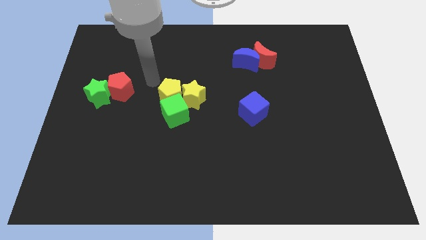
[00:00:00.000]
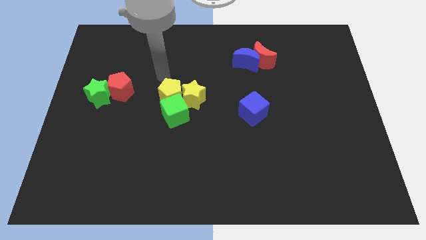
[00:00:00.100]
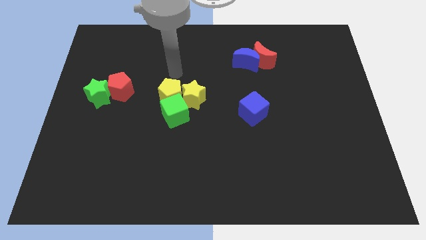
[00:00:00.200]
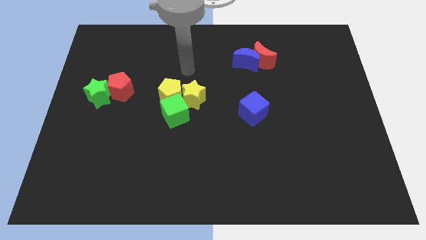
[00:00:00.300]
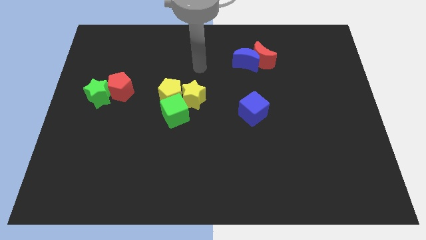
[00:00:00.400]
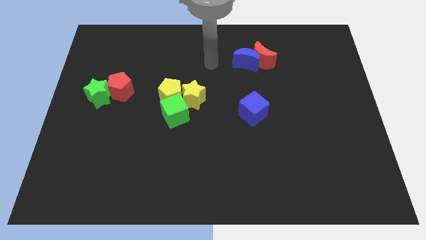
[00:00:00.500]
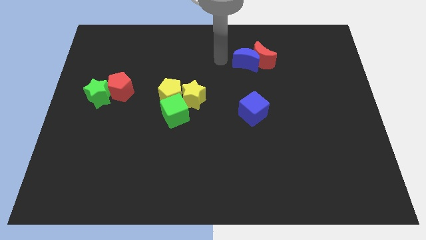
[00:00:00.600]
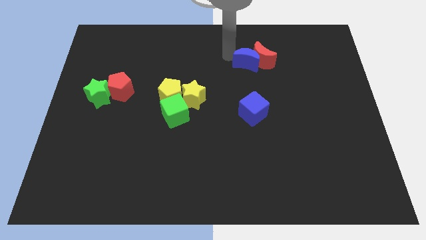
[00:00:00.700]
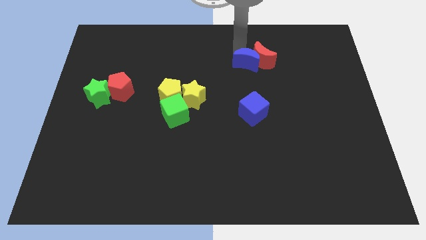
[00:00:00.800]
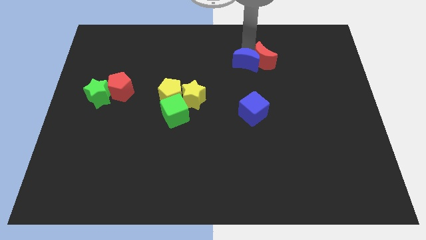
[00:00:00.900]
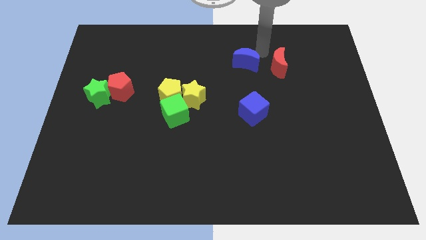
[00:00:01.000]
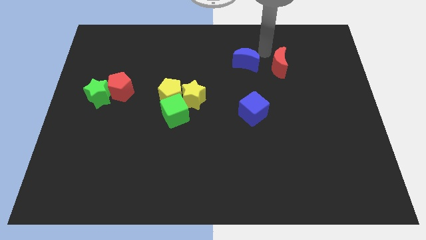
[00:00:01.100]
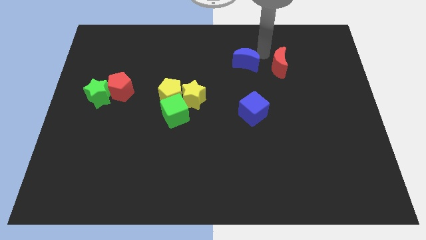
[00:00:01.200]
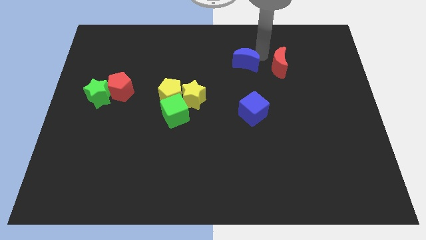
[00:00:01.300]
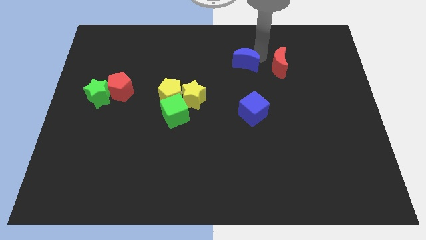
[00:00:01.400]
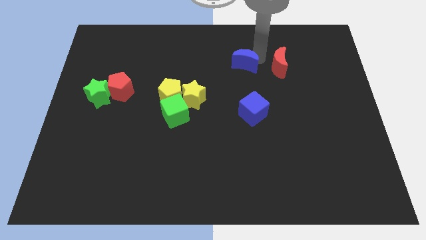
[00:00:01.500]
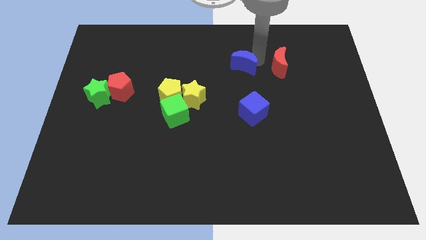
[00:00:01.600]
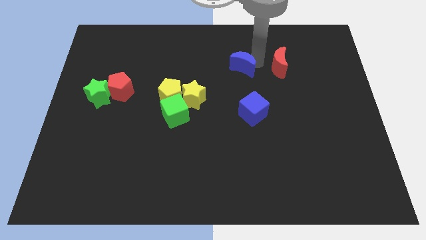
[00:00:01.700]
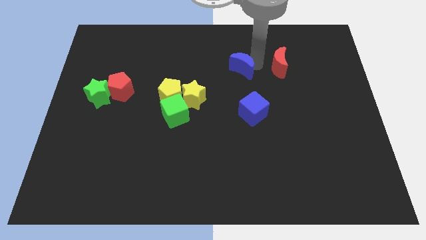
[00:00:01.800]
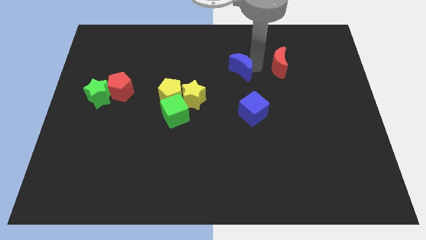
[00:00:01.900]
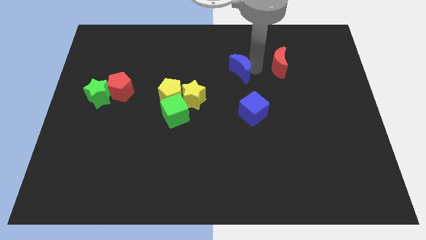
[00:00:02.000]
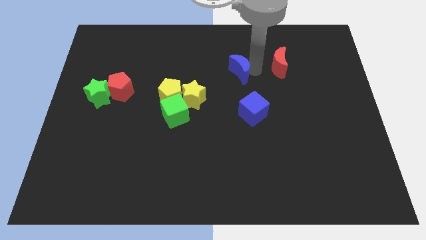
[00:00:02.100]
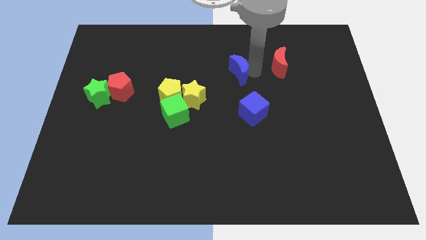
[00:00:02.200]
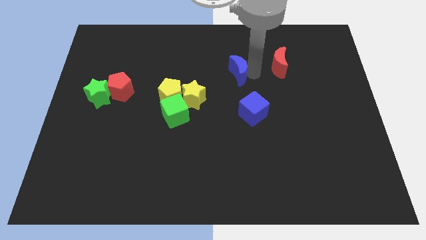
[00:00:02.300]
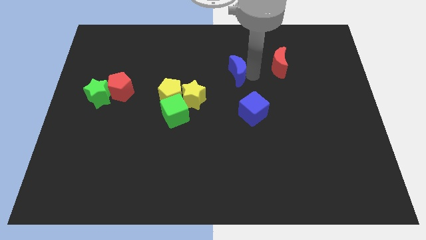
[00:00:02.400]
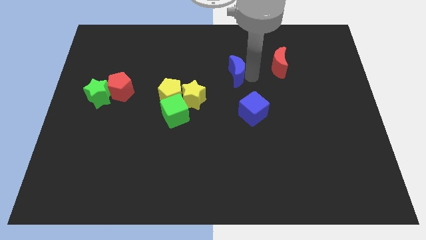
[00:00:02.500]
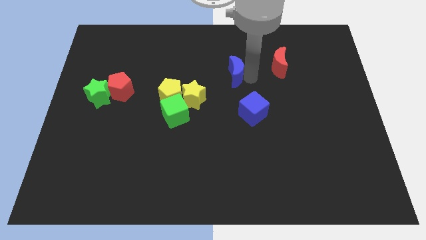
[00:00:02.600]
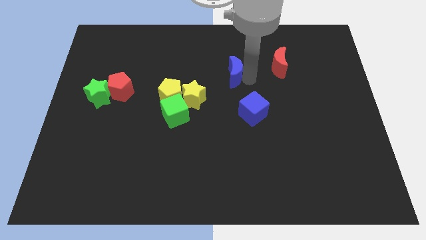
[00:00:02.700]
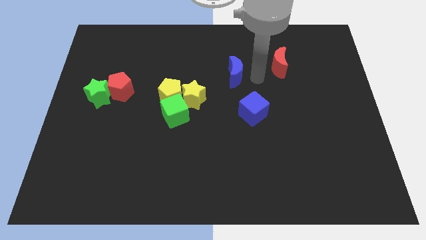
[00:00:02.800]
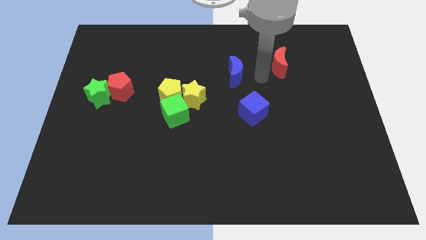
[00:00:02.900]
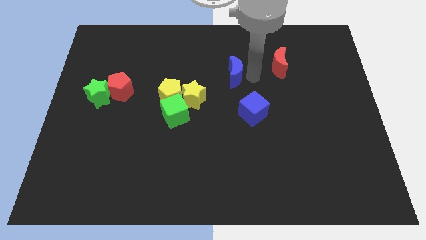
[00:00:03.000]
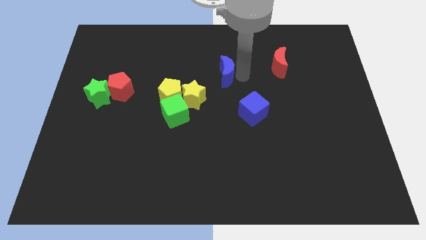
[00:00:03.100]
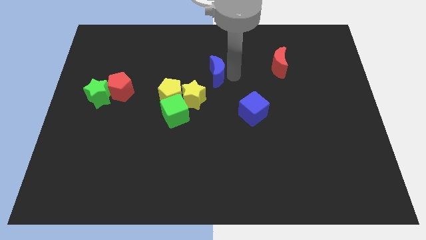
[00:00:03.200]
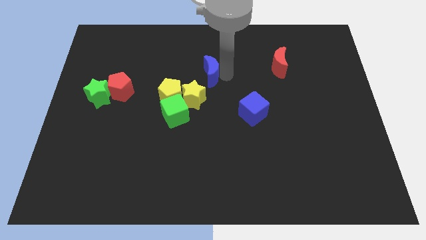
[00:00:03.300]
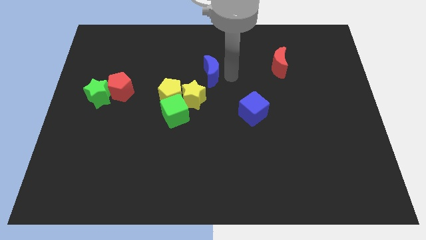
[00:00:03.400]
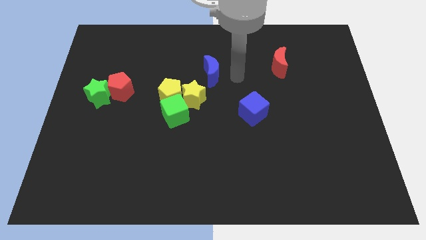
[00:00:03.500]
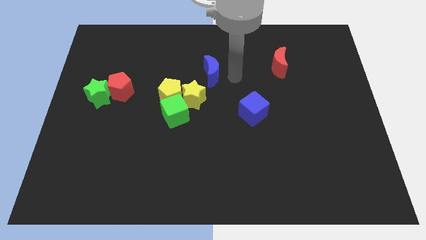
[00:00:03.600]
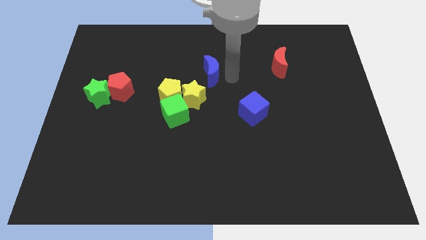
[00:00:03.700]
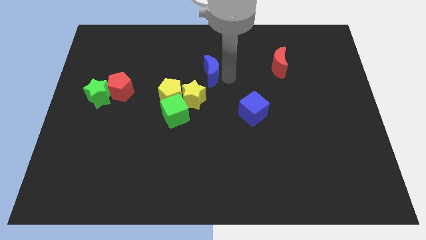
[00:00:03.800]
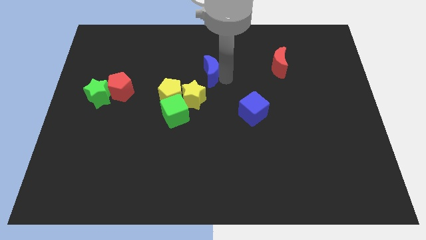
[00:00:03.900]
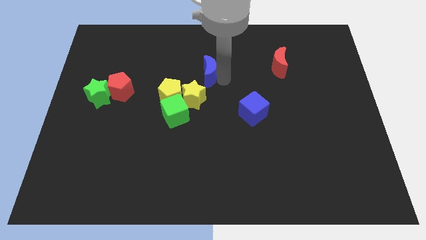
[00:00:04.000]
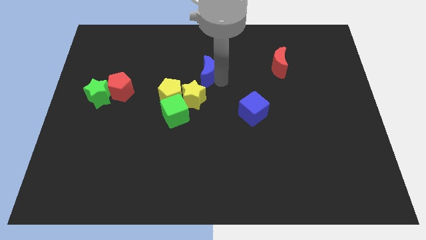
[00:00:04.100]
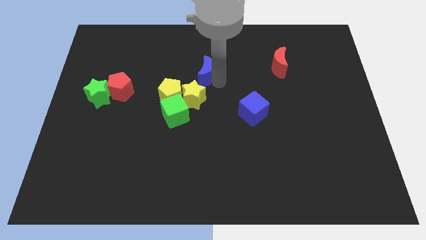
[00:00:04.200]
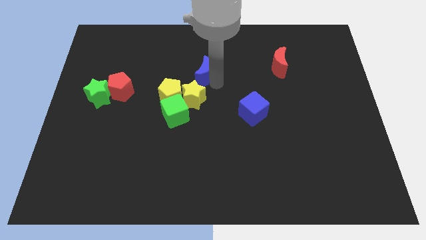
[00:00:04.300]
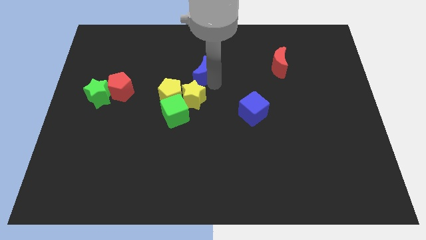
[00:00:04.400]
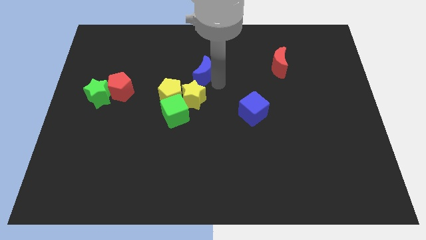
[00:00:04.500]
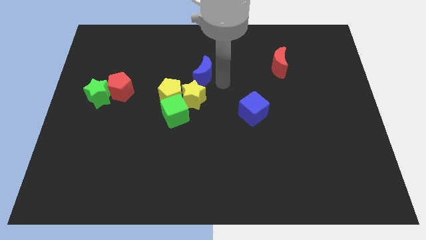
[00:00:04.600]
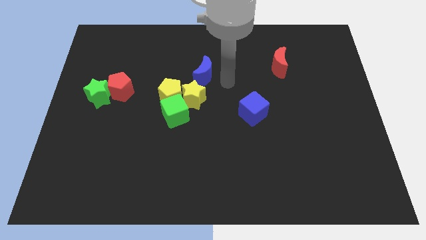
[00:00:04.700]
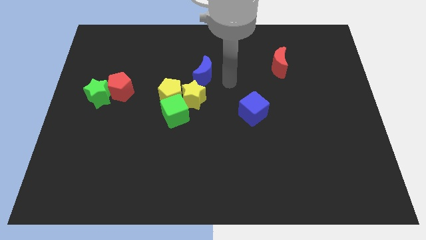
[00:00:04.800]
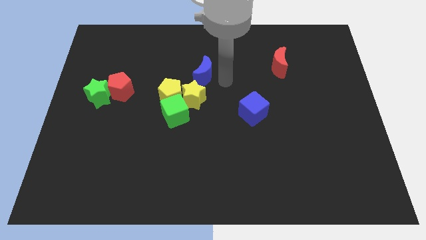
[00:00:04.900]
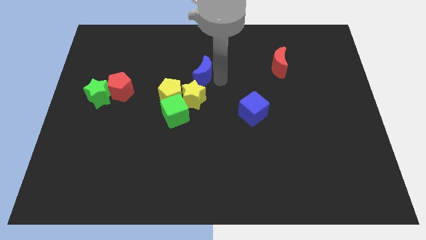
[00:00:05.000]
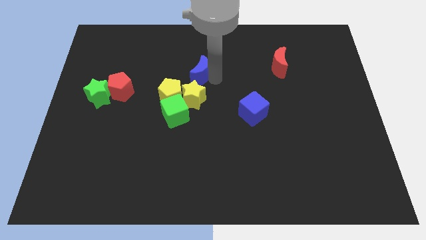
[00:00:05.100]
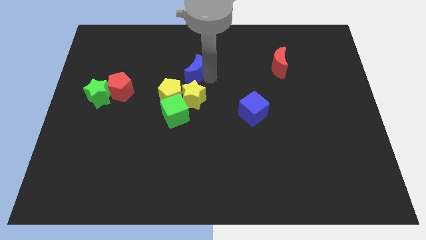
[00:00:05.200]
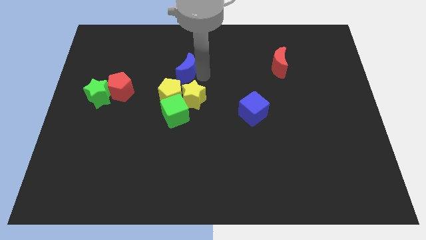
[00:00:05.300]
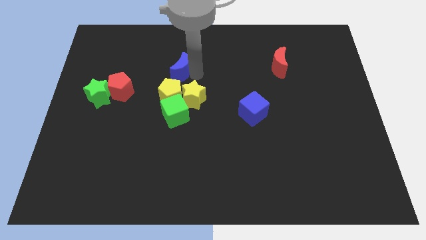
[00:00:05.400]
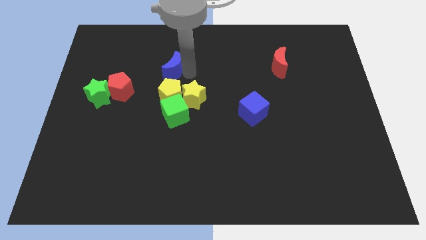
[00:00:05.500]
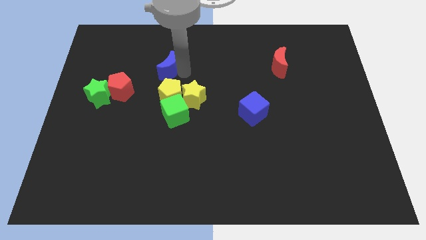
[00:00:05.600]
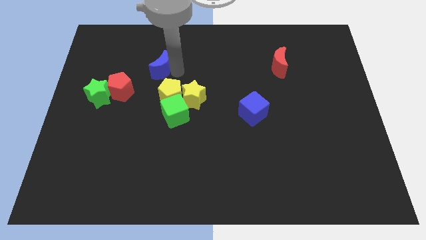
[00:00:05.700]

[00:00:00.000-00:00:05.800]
move the blue moon left

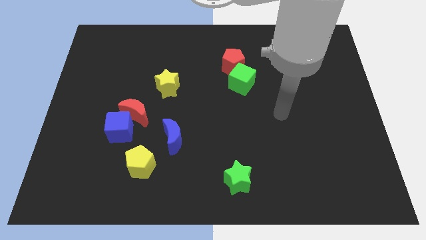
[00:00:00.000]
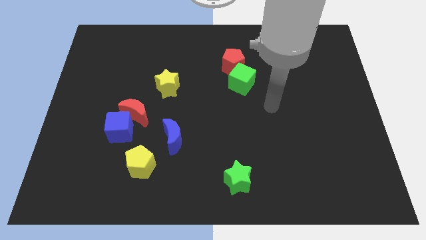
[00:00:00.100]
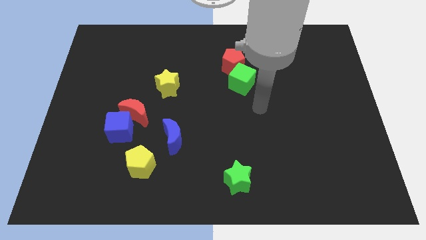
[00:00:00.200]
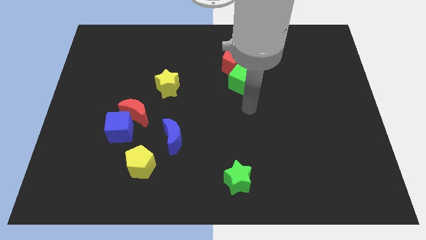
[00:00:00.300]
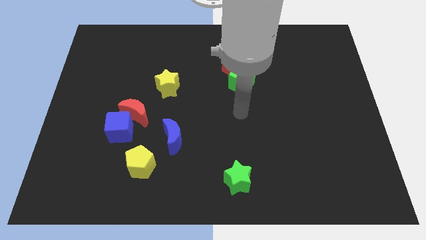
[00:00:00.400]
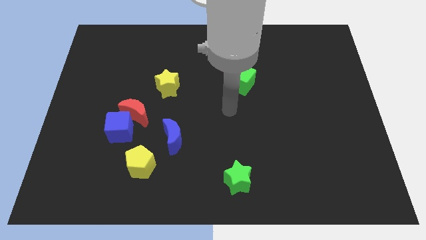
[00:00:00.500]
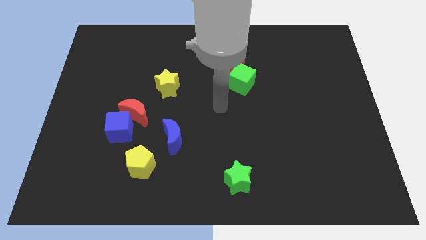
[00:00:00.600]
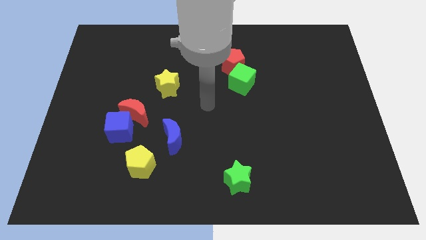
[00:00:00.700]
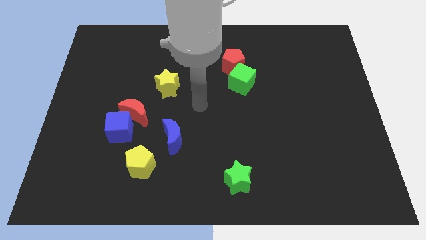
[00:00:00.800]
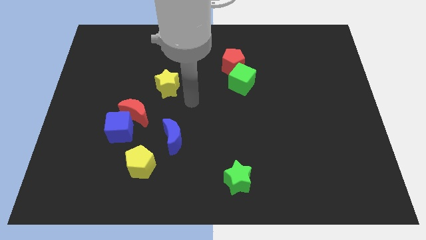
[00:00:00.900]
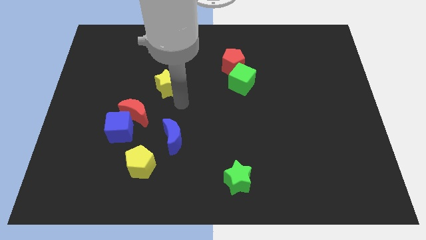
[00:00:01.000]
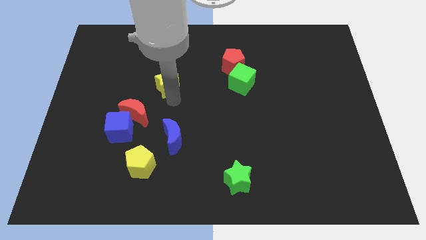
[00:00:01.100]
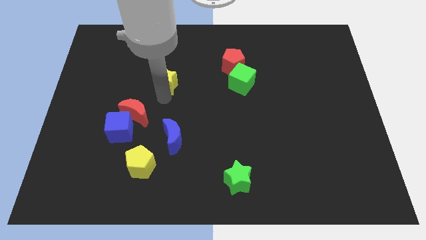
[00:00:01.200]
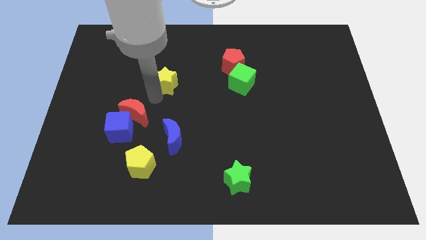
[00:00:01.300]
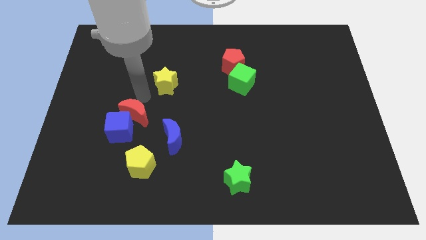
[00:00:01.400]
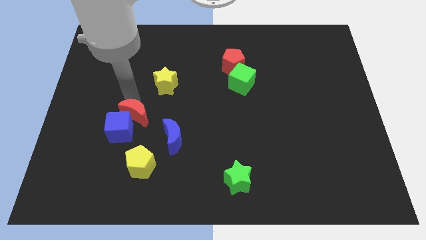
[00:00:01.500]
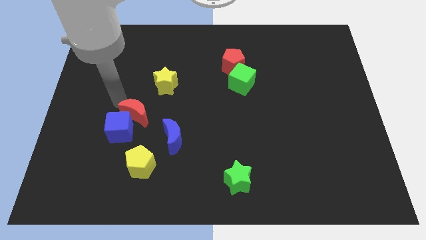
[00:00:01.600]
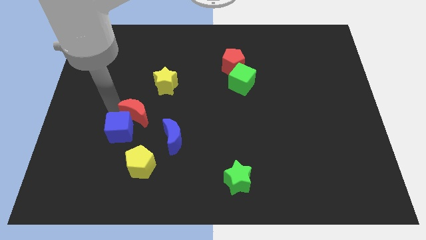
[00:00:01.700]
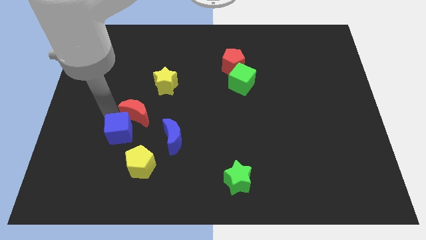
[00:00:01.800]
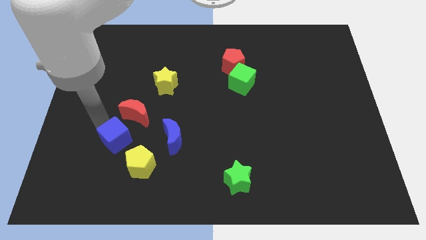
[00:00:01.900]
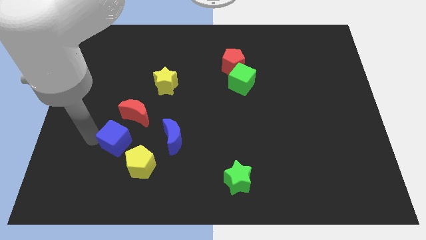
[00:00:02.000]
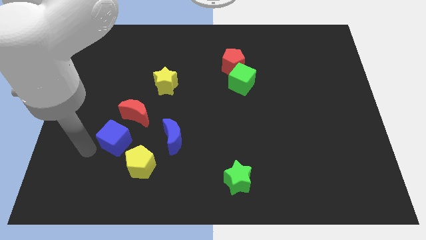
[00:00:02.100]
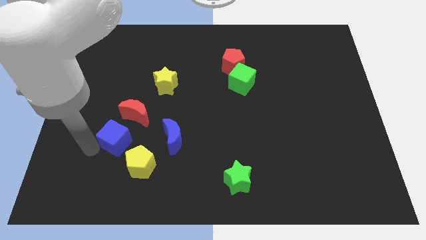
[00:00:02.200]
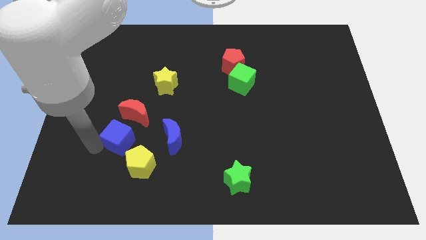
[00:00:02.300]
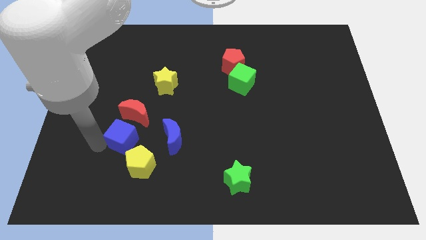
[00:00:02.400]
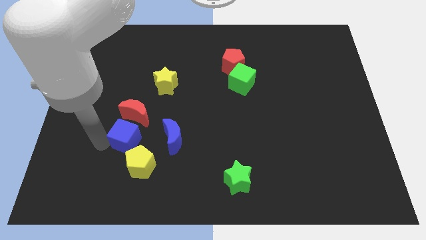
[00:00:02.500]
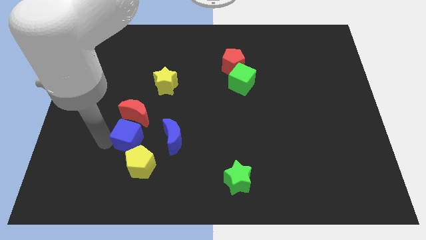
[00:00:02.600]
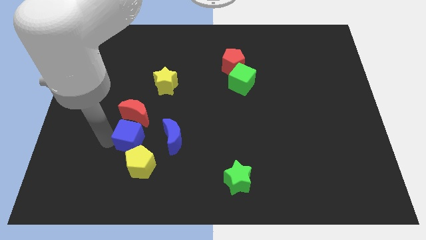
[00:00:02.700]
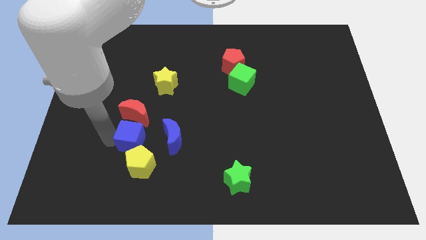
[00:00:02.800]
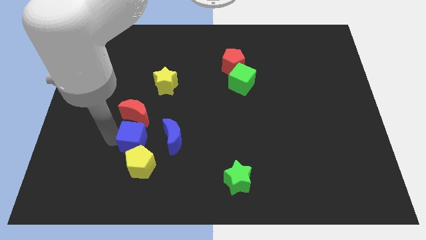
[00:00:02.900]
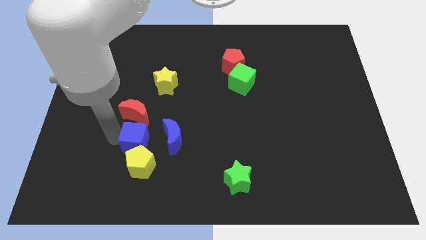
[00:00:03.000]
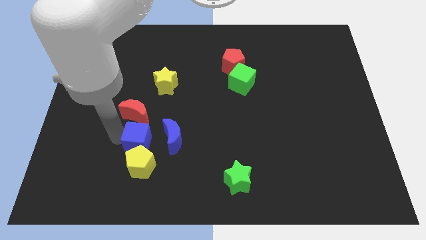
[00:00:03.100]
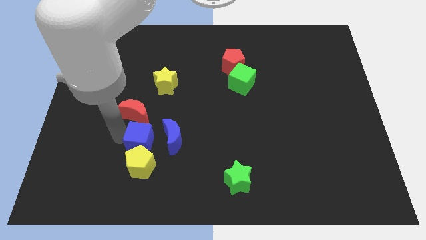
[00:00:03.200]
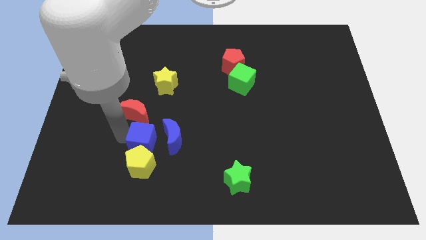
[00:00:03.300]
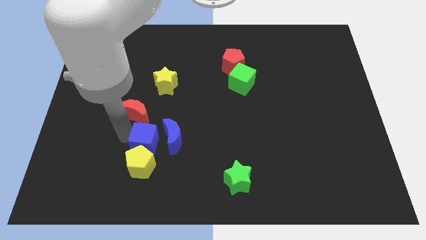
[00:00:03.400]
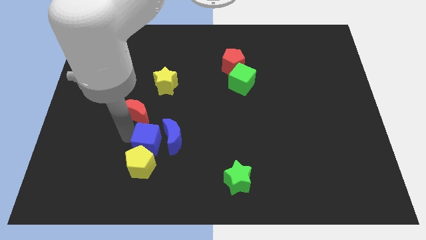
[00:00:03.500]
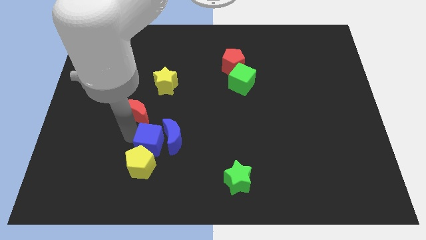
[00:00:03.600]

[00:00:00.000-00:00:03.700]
move the blue cube a bit right
